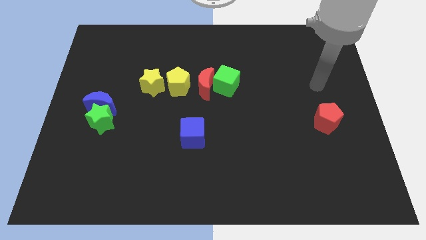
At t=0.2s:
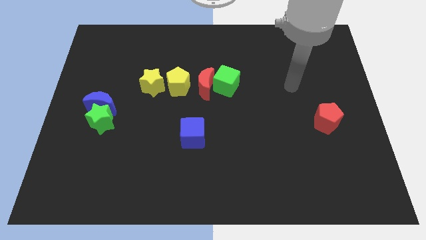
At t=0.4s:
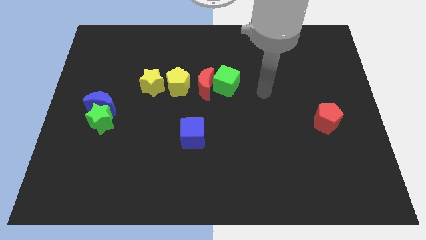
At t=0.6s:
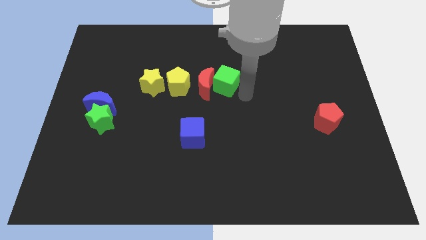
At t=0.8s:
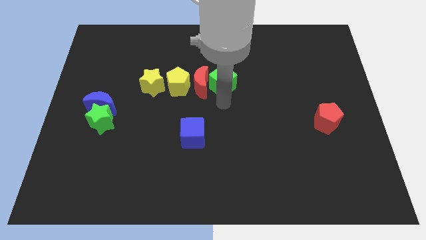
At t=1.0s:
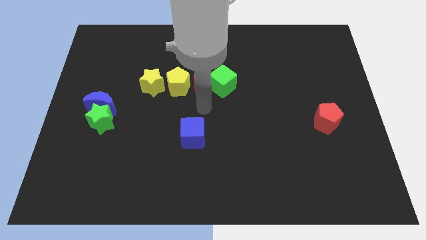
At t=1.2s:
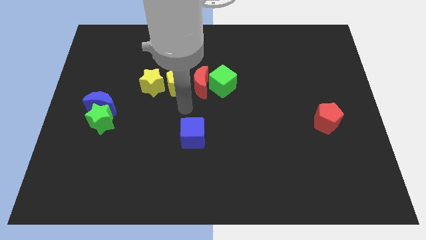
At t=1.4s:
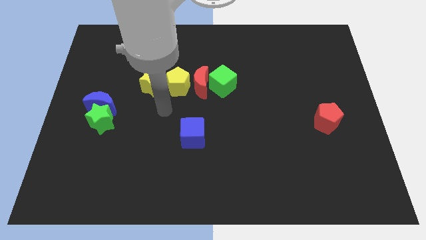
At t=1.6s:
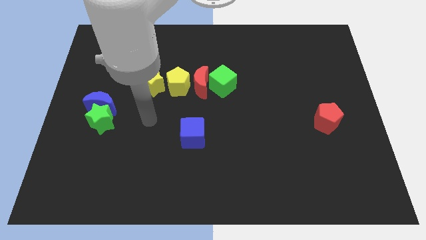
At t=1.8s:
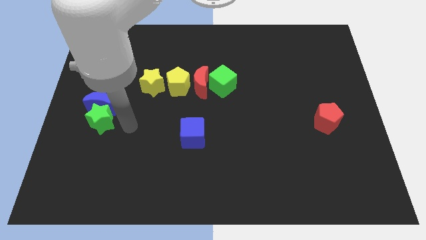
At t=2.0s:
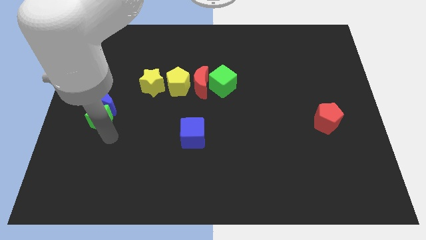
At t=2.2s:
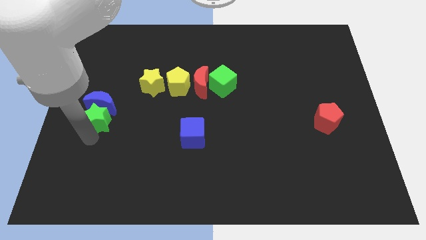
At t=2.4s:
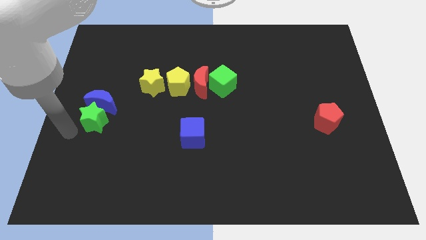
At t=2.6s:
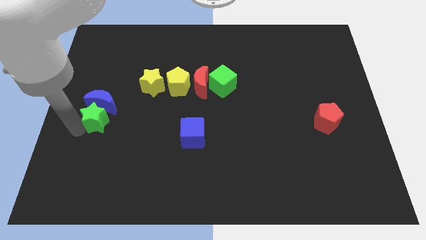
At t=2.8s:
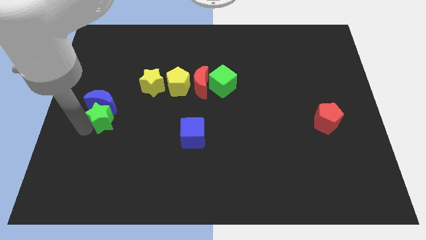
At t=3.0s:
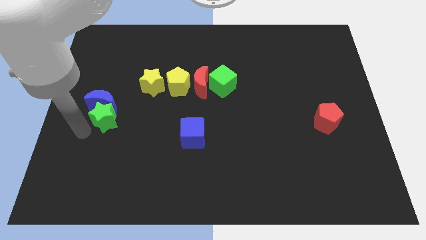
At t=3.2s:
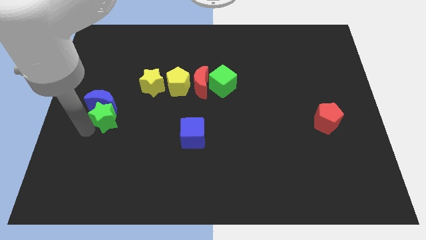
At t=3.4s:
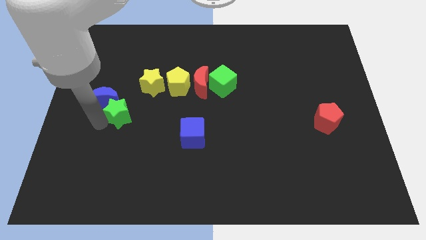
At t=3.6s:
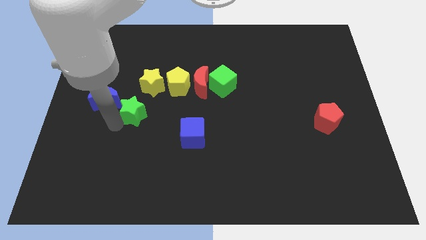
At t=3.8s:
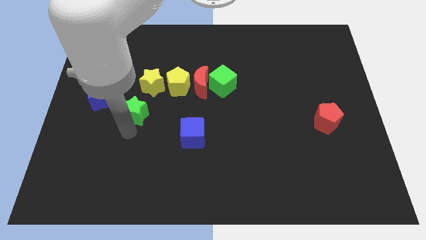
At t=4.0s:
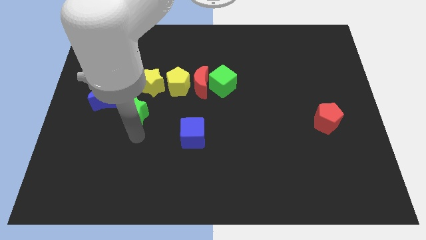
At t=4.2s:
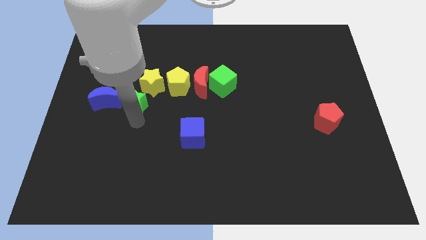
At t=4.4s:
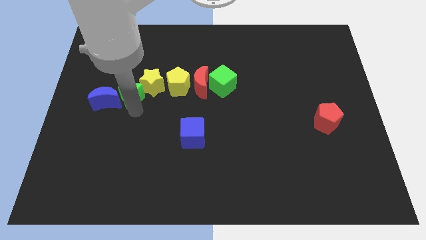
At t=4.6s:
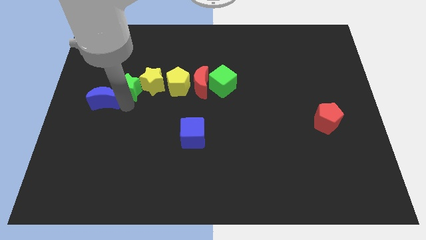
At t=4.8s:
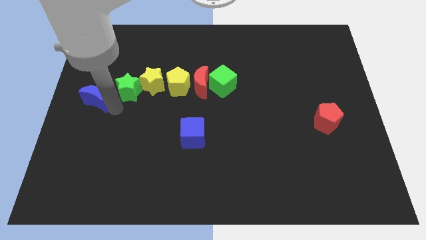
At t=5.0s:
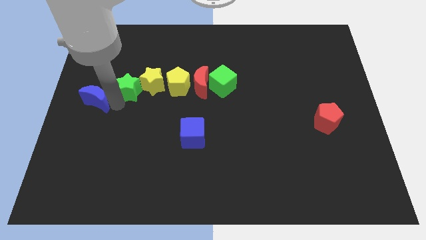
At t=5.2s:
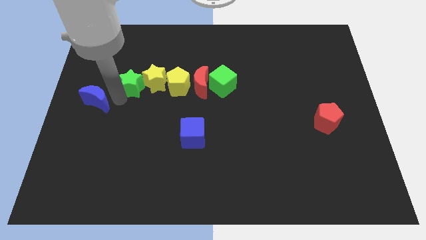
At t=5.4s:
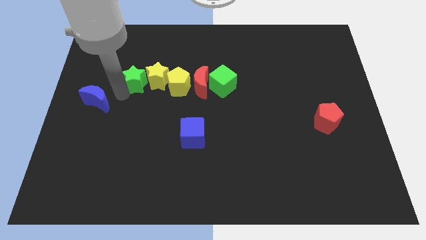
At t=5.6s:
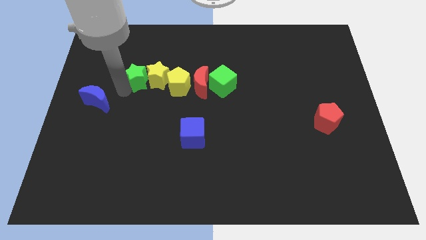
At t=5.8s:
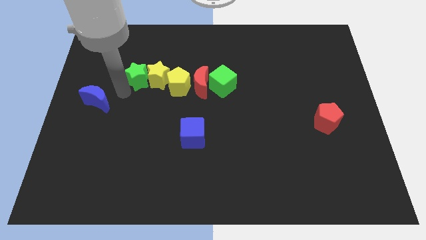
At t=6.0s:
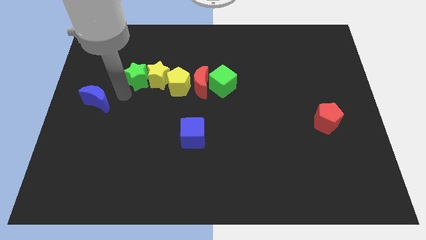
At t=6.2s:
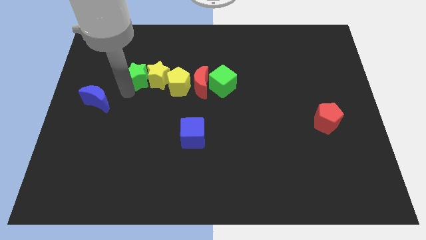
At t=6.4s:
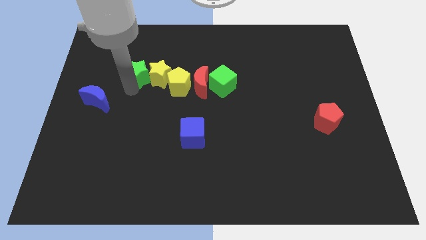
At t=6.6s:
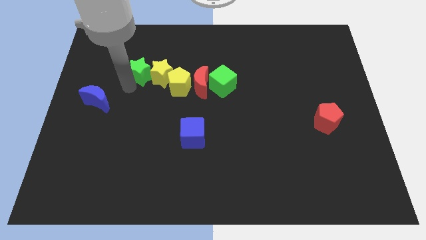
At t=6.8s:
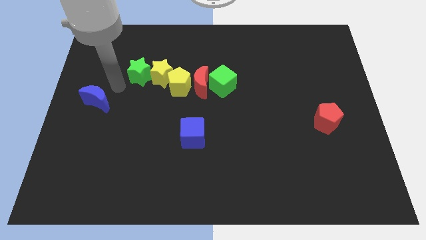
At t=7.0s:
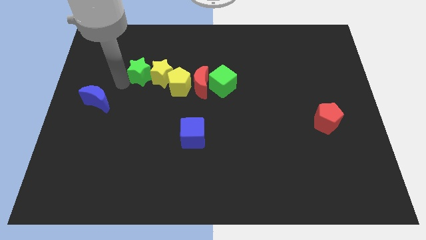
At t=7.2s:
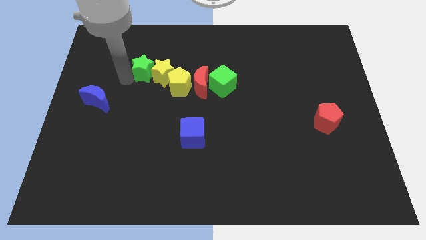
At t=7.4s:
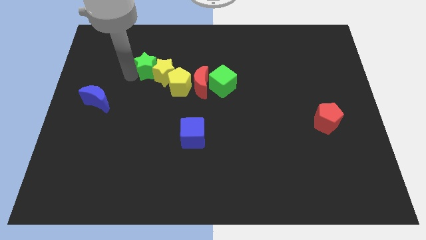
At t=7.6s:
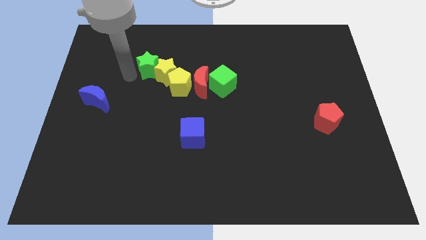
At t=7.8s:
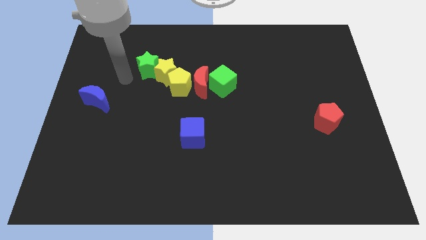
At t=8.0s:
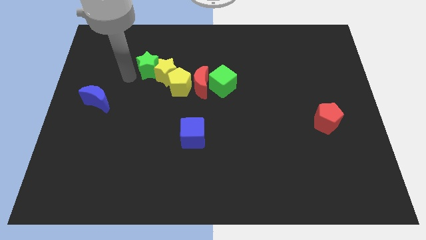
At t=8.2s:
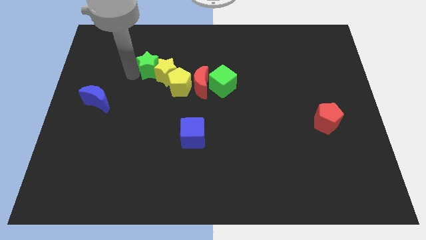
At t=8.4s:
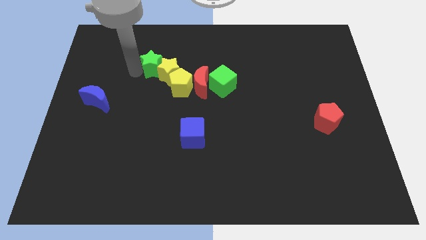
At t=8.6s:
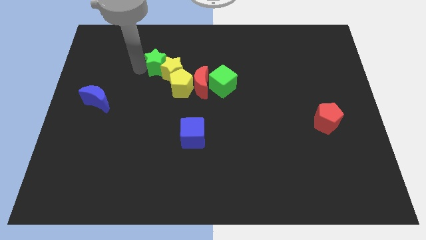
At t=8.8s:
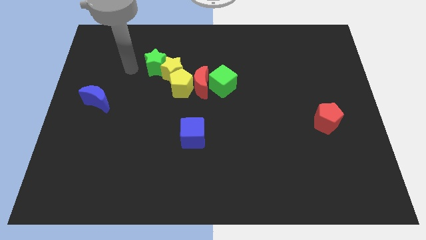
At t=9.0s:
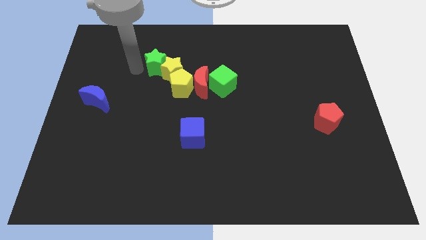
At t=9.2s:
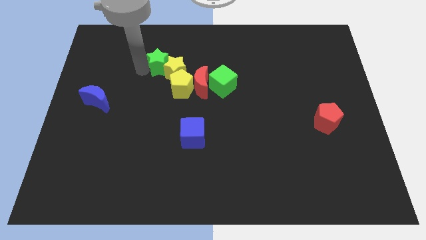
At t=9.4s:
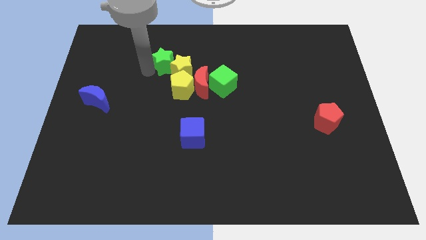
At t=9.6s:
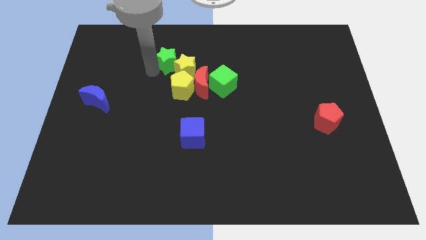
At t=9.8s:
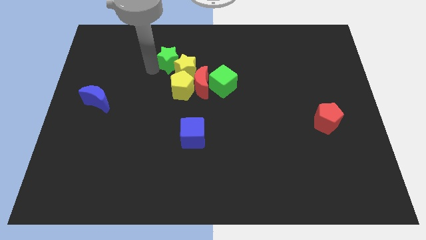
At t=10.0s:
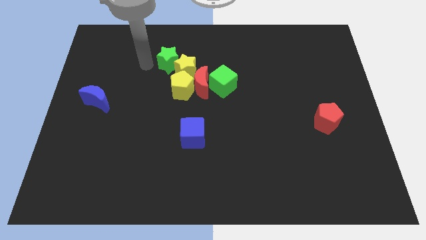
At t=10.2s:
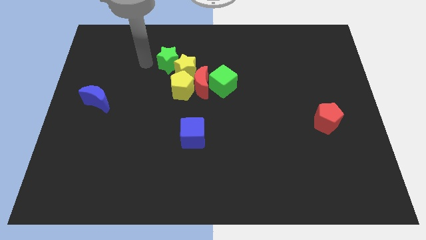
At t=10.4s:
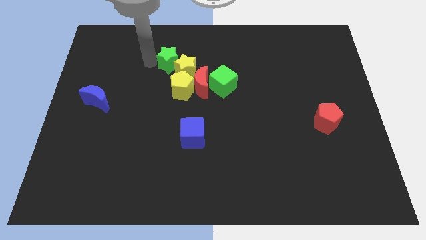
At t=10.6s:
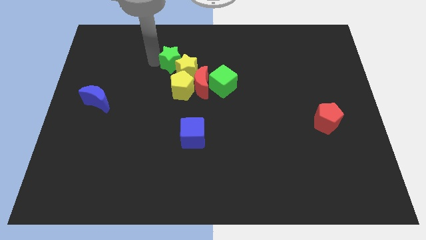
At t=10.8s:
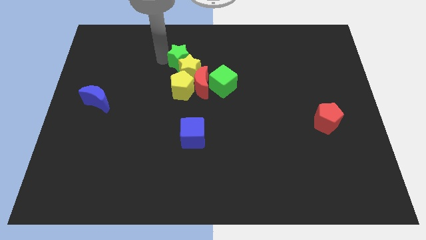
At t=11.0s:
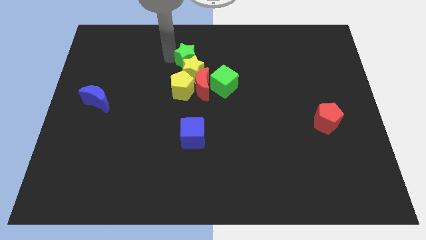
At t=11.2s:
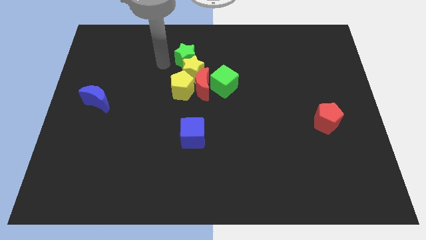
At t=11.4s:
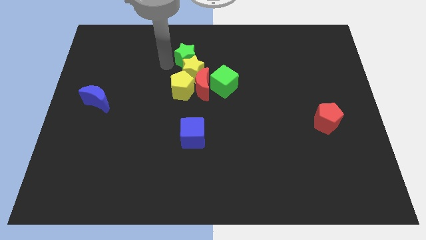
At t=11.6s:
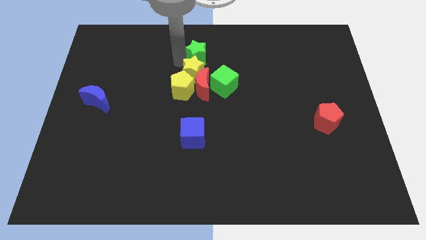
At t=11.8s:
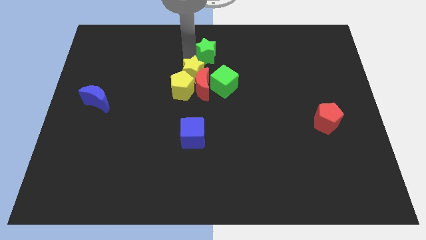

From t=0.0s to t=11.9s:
put the green star above the green cube

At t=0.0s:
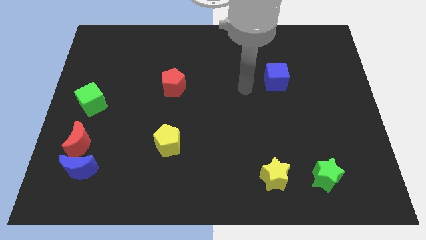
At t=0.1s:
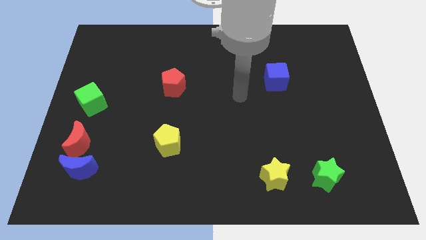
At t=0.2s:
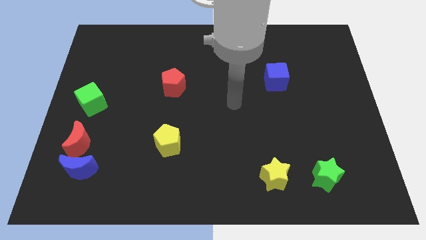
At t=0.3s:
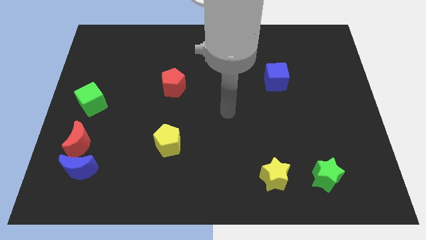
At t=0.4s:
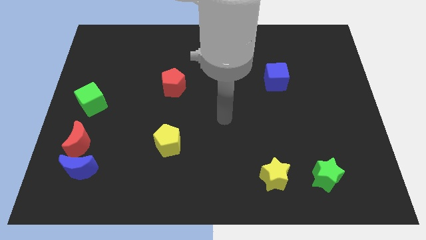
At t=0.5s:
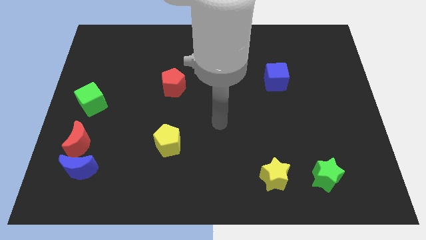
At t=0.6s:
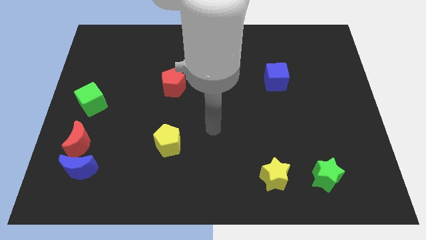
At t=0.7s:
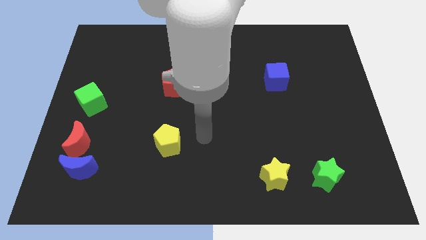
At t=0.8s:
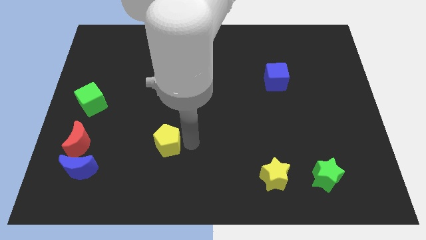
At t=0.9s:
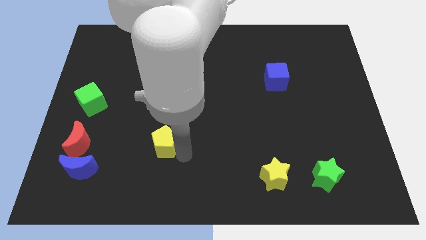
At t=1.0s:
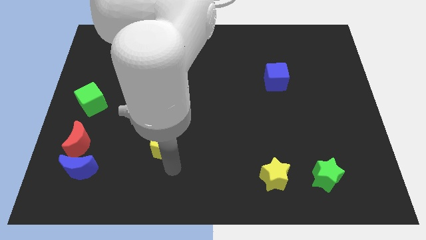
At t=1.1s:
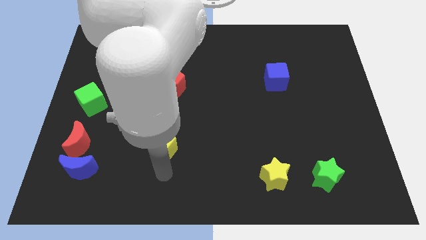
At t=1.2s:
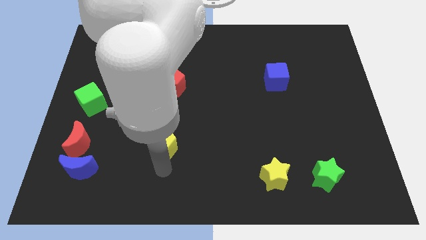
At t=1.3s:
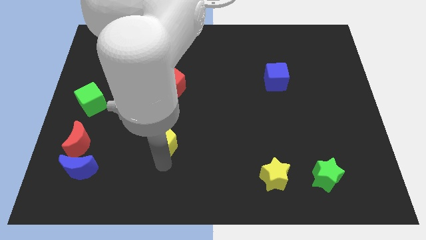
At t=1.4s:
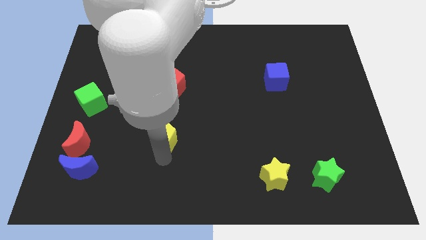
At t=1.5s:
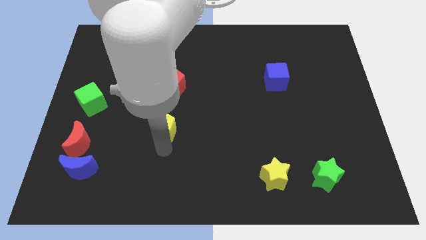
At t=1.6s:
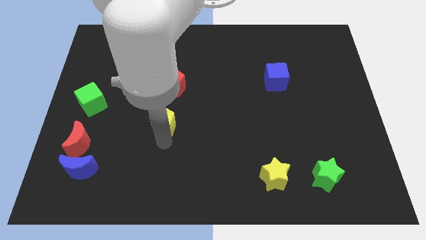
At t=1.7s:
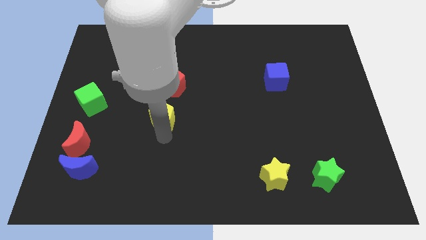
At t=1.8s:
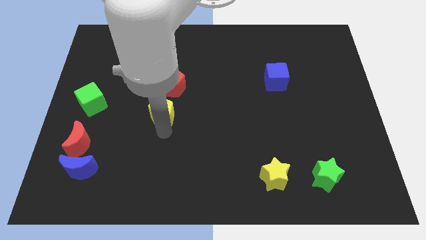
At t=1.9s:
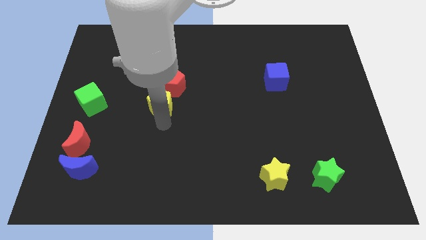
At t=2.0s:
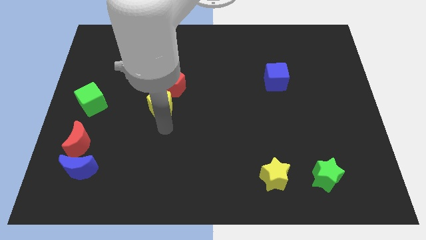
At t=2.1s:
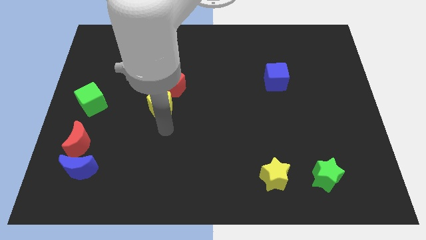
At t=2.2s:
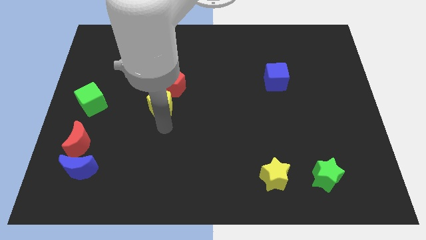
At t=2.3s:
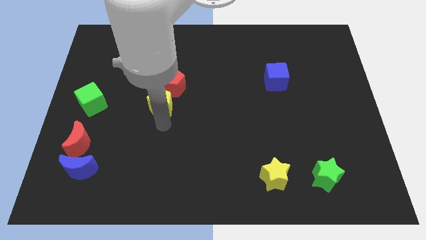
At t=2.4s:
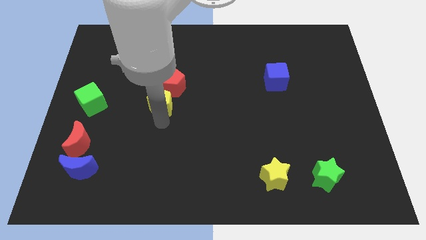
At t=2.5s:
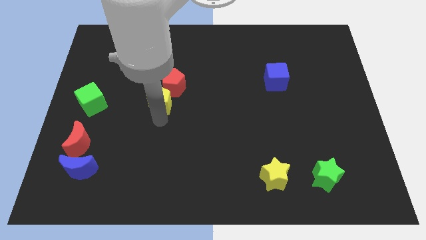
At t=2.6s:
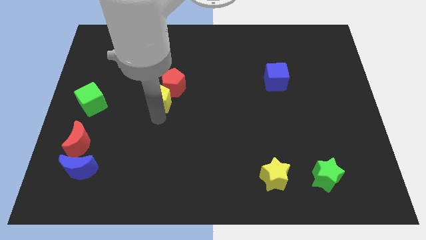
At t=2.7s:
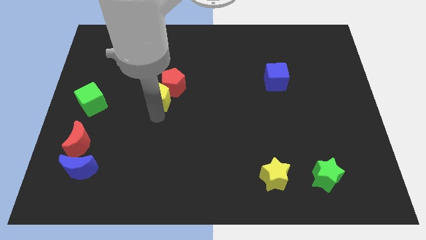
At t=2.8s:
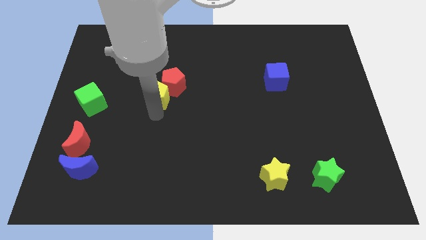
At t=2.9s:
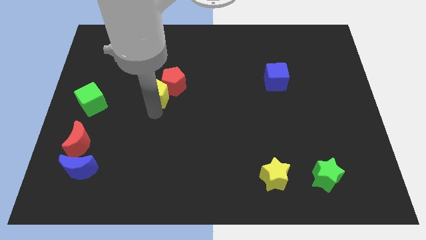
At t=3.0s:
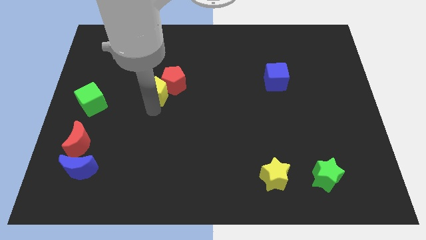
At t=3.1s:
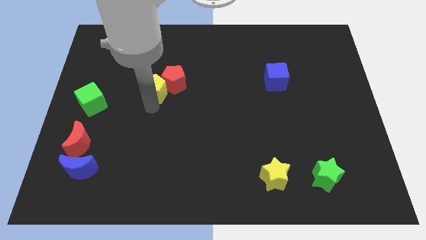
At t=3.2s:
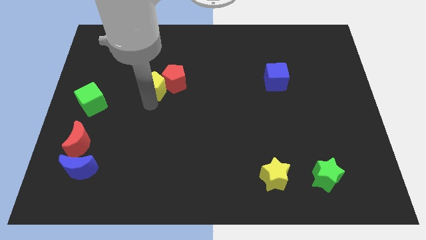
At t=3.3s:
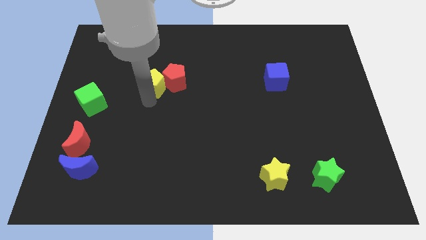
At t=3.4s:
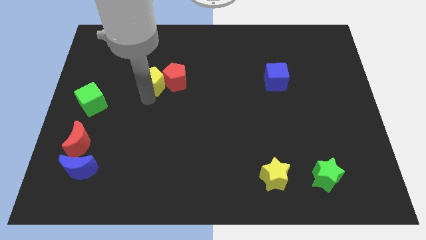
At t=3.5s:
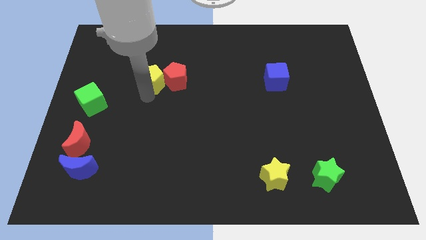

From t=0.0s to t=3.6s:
slide the yellow pentagon diagonally up and to the left of the red pentagon
